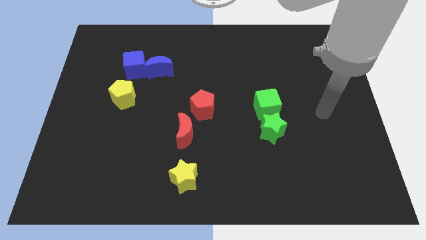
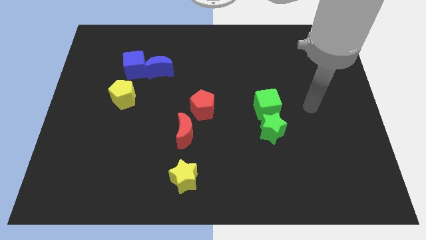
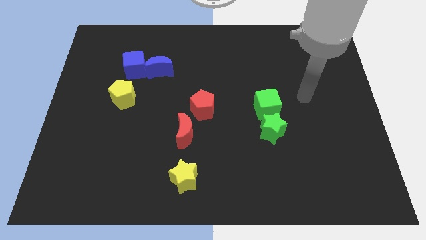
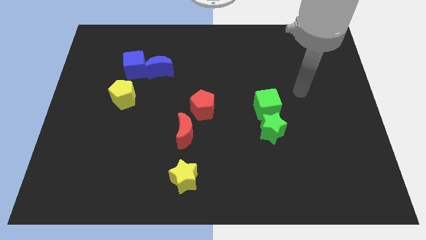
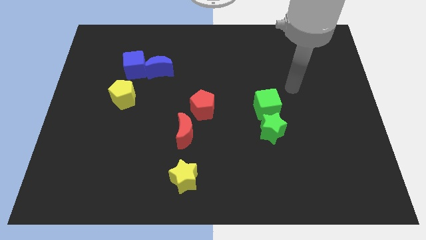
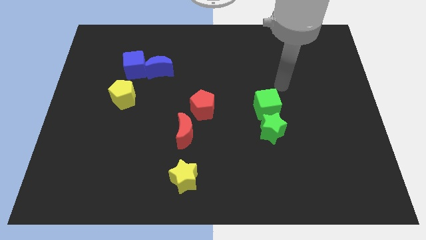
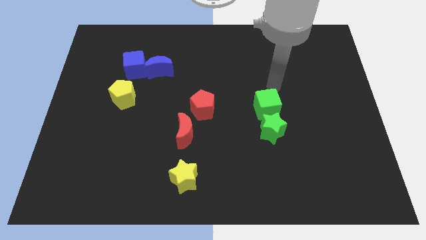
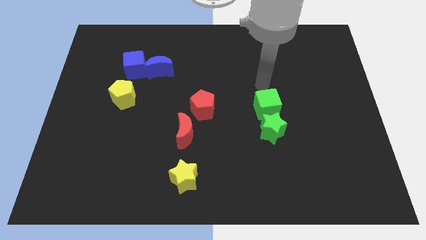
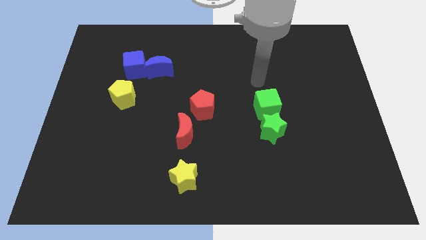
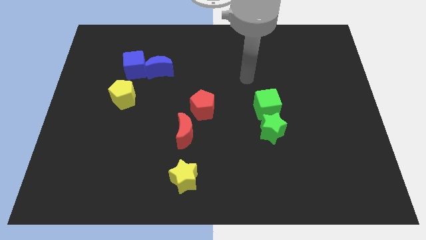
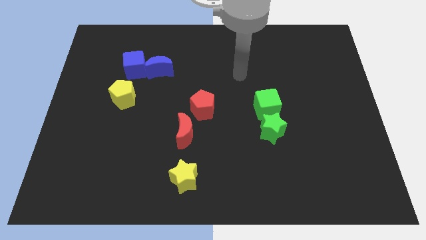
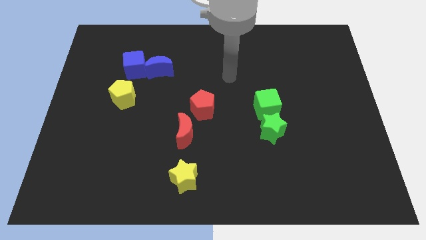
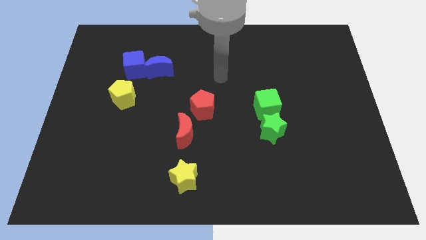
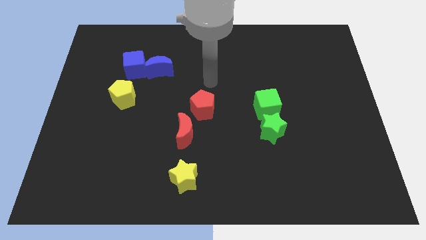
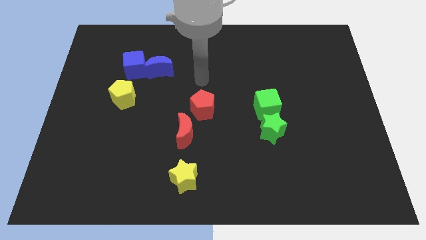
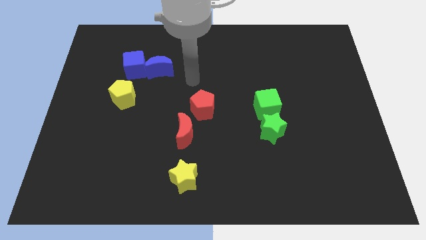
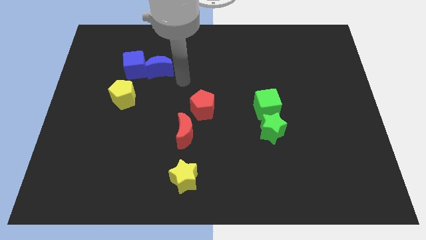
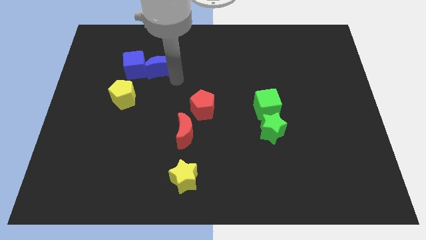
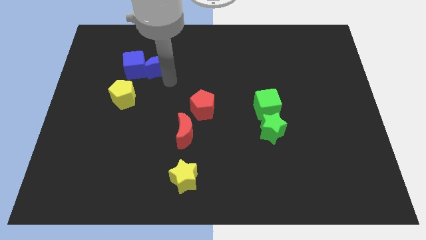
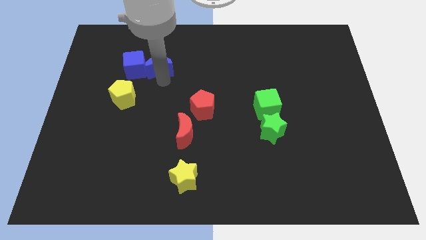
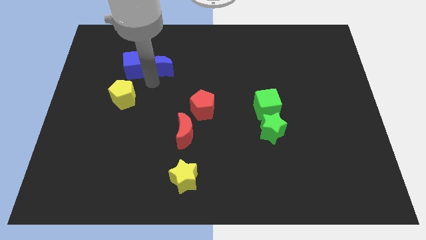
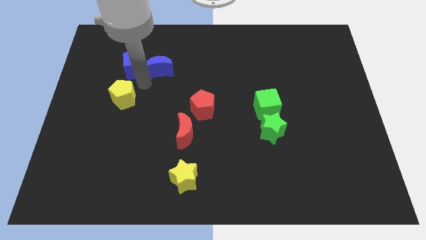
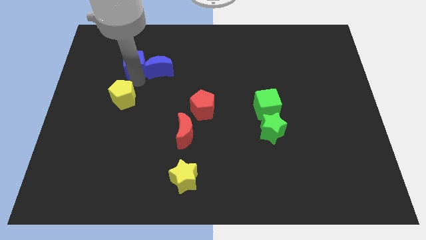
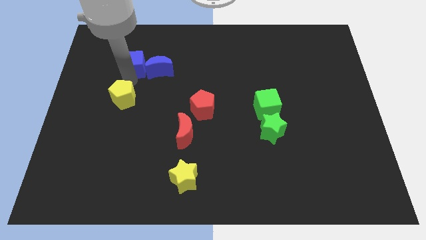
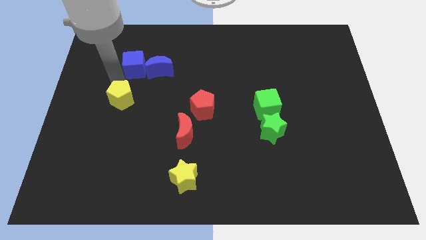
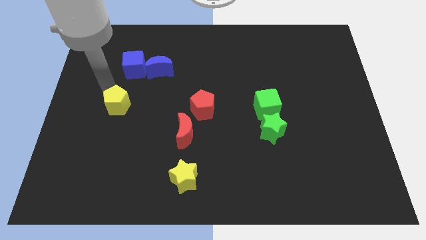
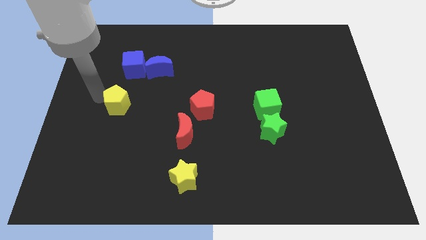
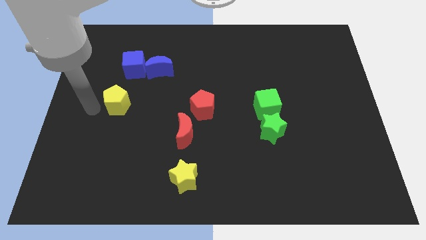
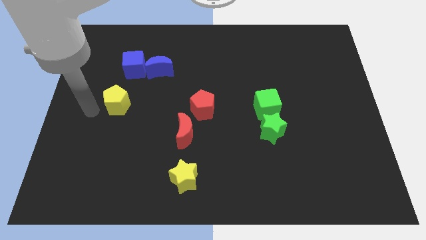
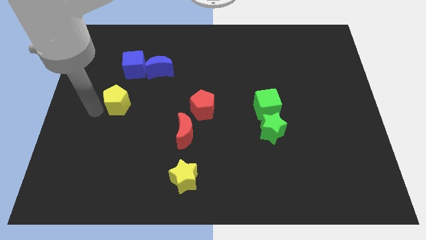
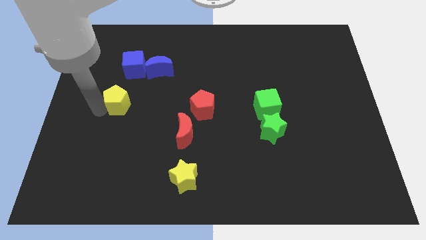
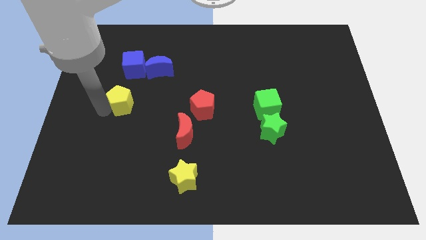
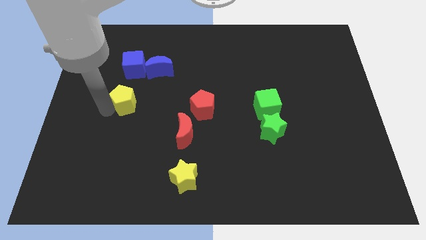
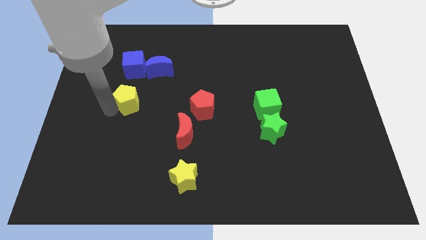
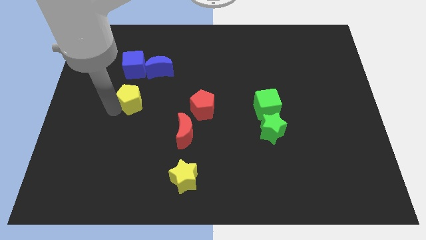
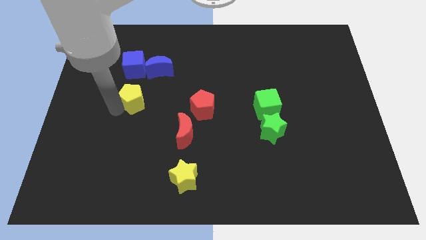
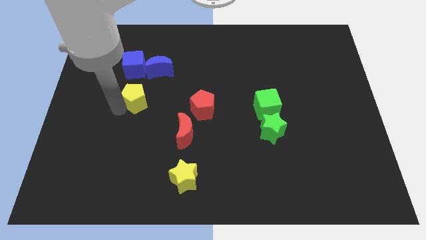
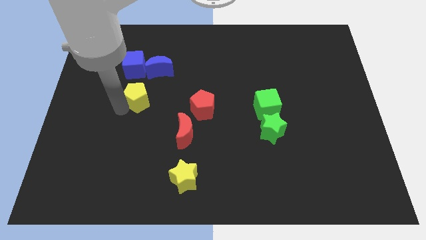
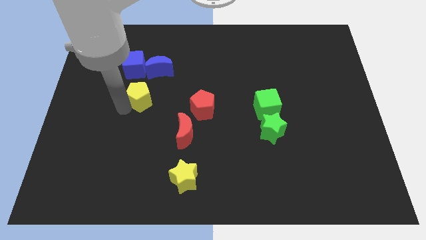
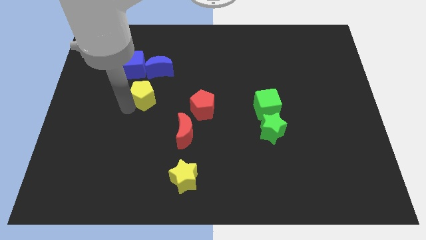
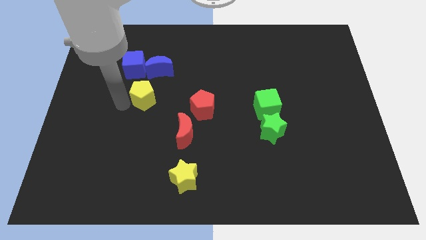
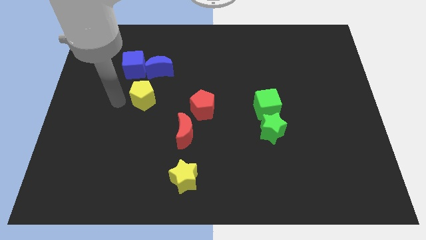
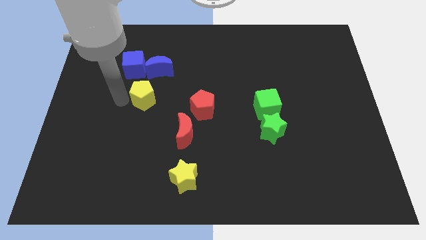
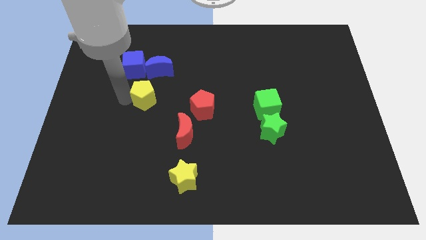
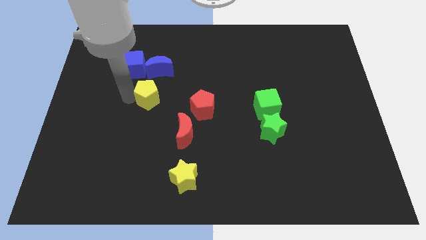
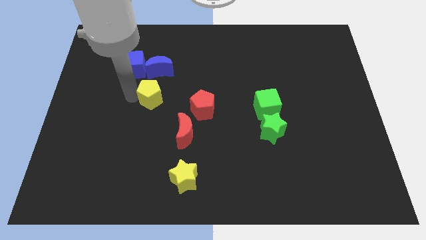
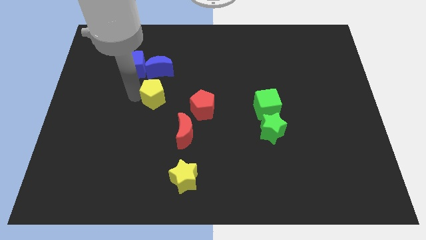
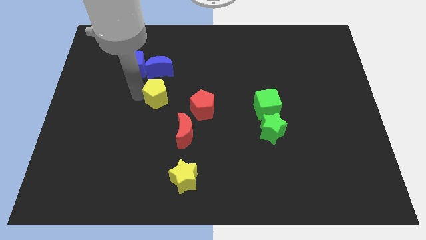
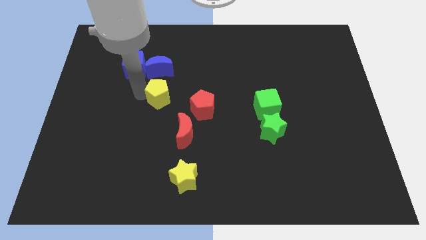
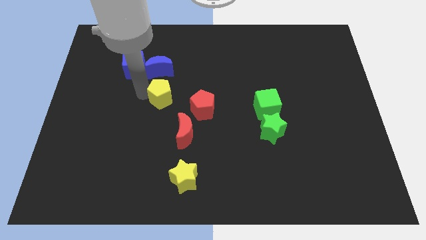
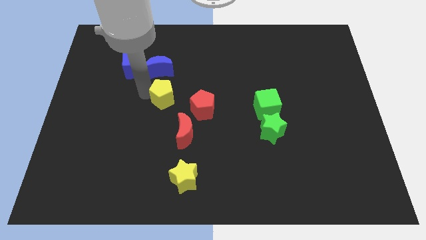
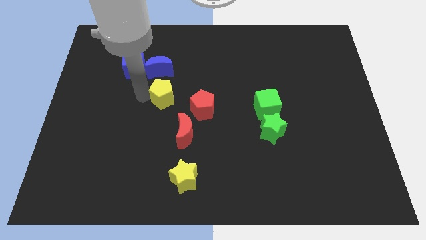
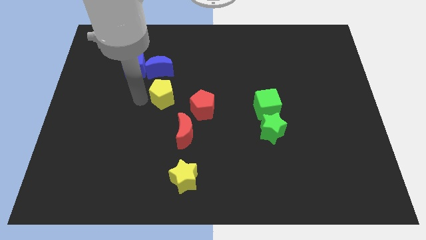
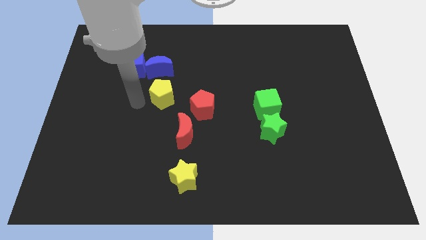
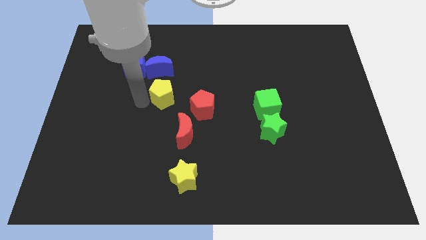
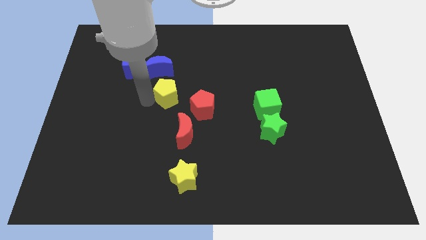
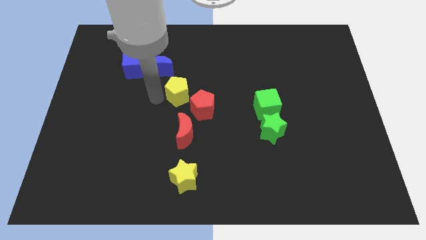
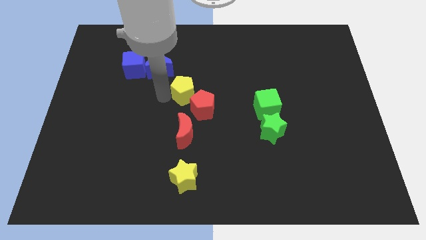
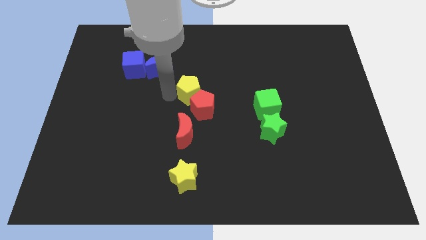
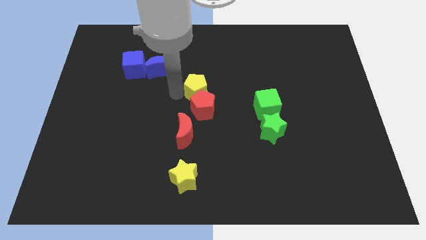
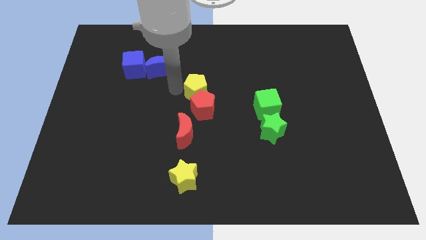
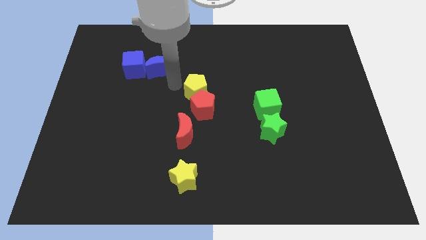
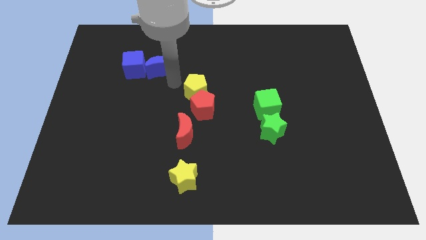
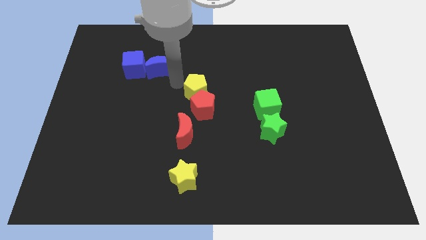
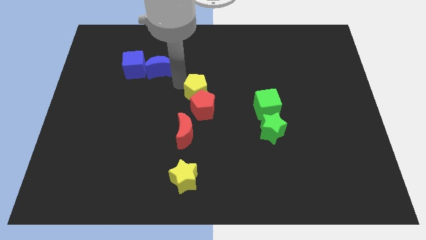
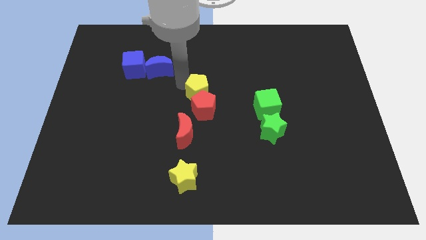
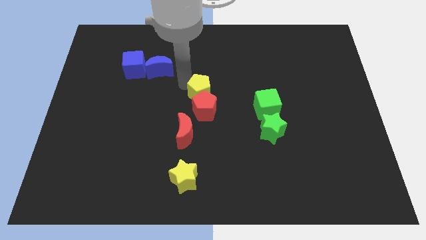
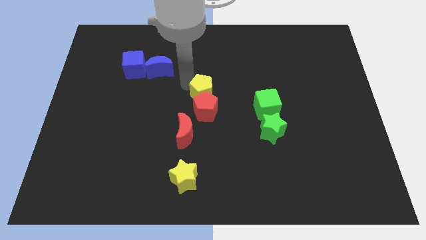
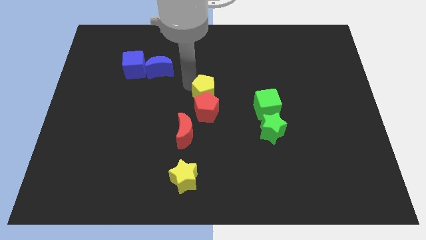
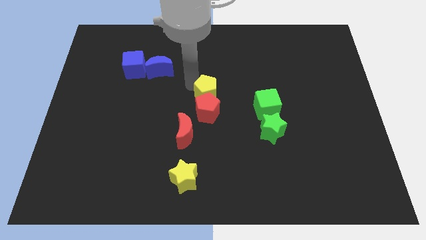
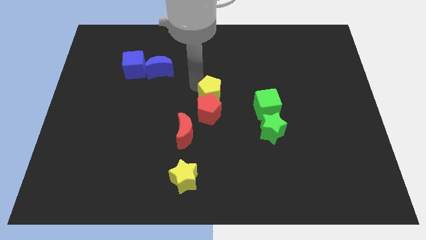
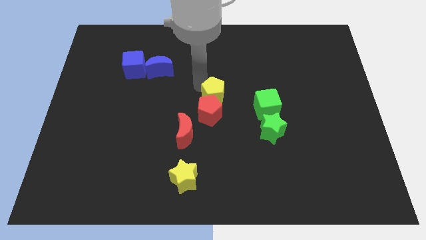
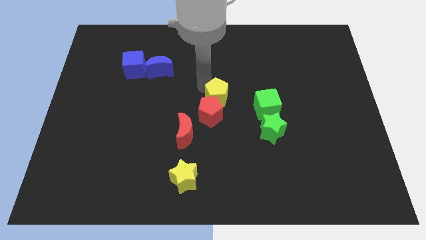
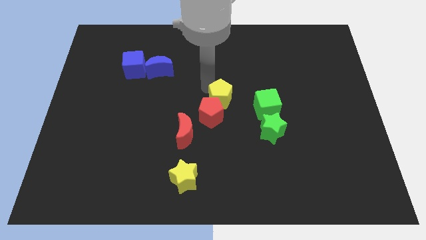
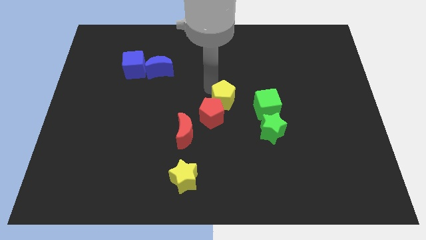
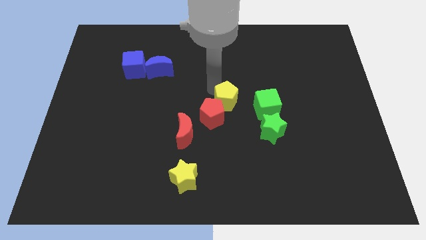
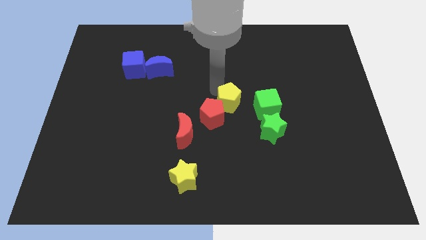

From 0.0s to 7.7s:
put the yellow pentagon to the top left side of the green star
